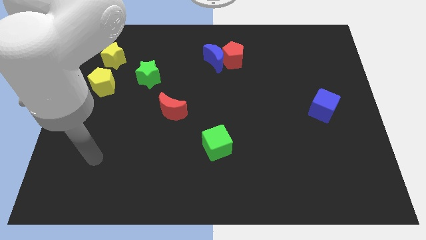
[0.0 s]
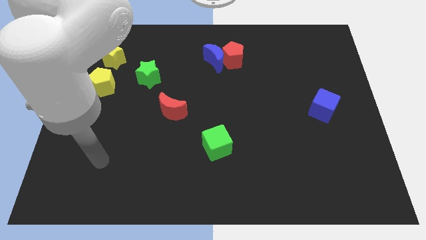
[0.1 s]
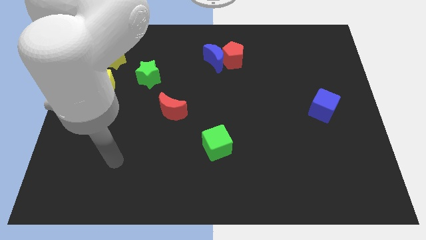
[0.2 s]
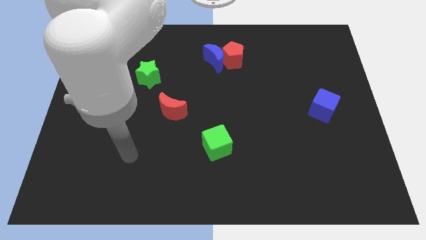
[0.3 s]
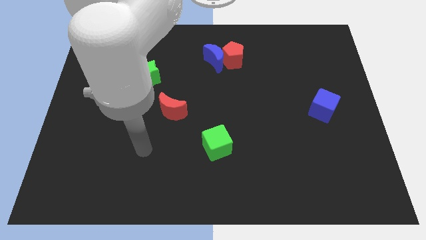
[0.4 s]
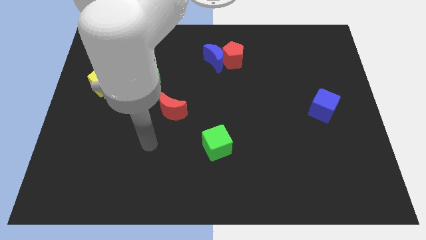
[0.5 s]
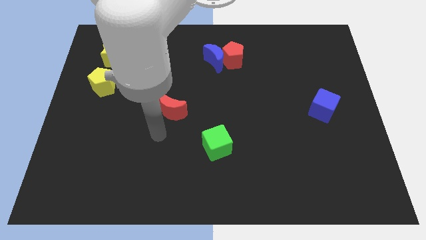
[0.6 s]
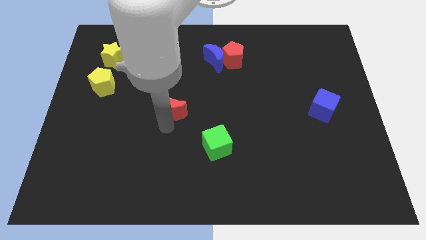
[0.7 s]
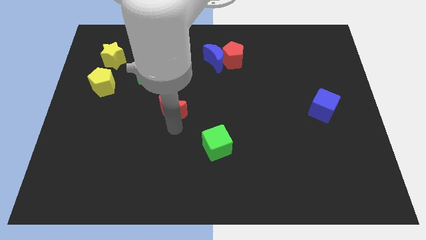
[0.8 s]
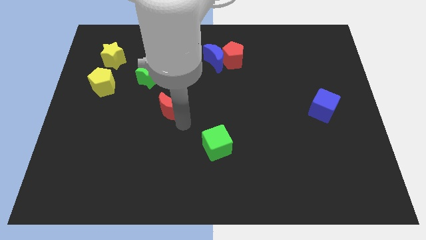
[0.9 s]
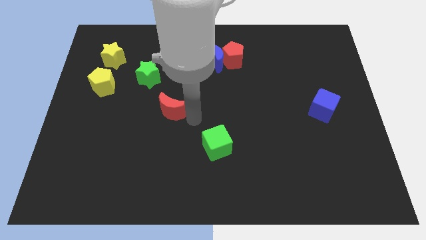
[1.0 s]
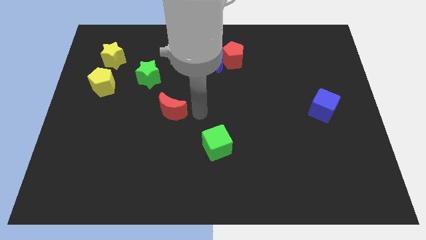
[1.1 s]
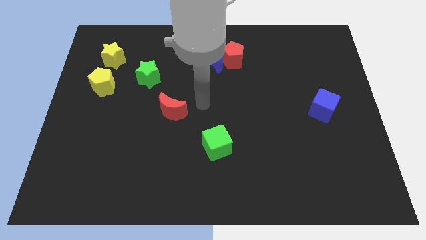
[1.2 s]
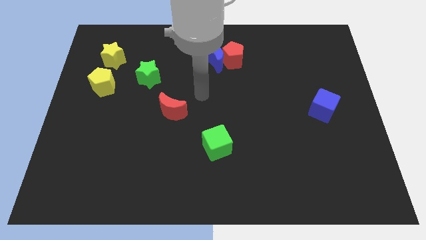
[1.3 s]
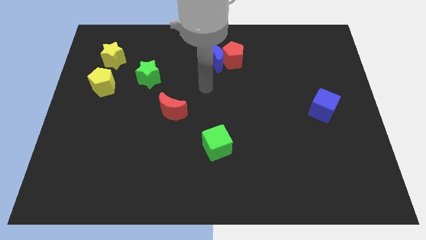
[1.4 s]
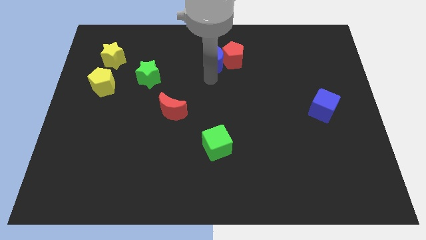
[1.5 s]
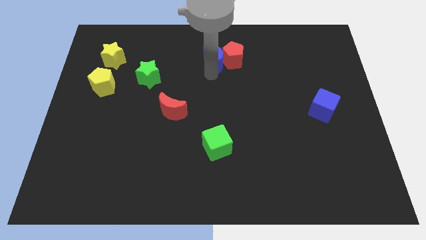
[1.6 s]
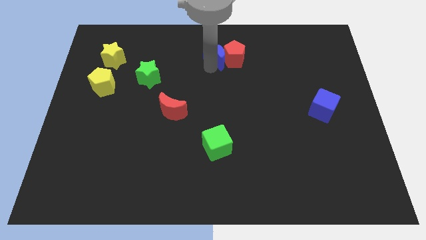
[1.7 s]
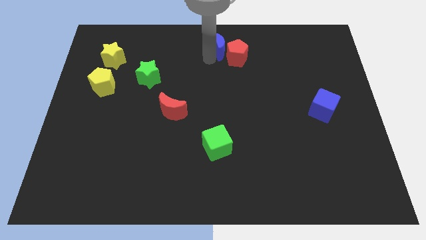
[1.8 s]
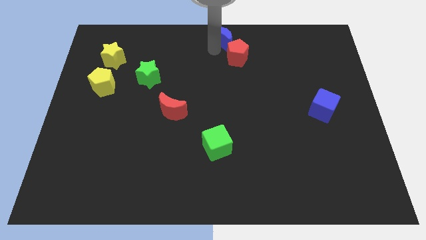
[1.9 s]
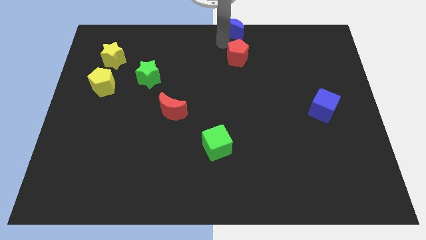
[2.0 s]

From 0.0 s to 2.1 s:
move the red pentagon away from the blue moon

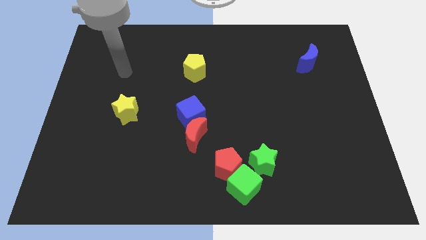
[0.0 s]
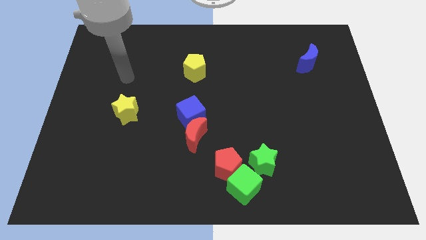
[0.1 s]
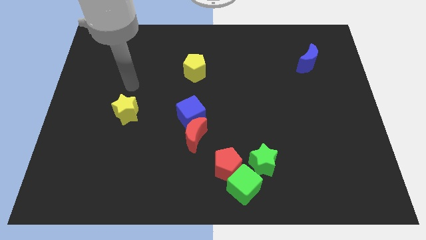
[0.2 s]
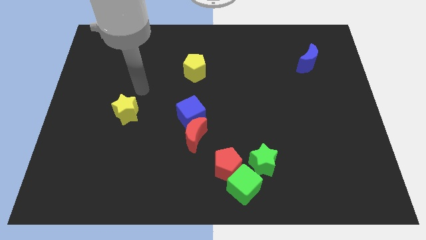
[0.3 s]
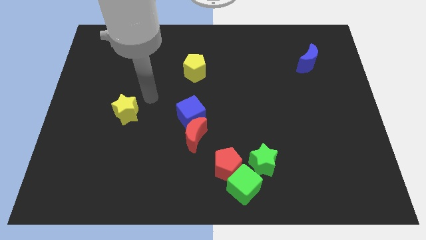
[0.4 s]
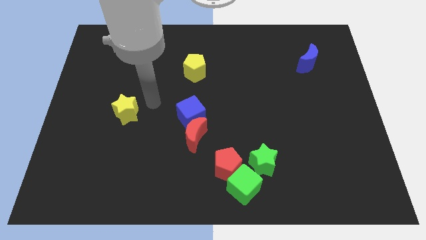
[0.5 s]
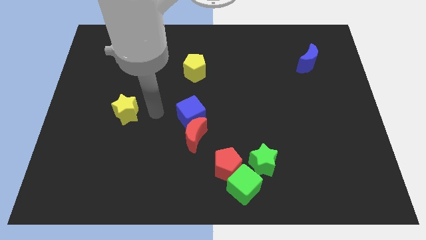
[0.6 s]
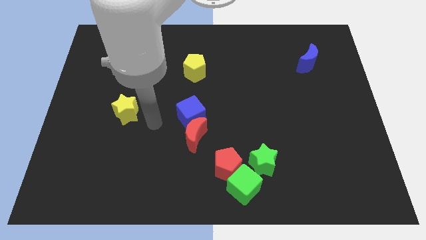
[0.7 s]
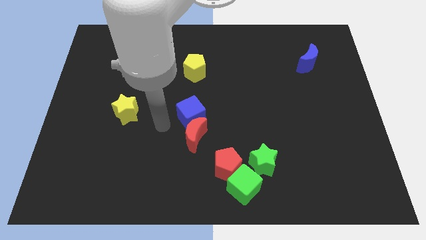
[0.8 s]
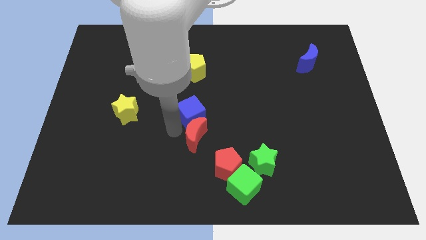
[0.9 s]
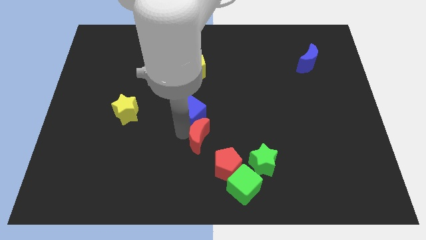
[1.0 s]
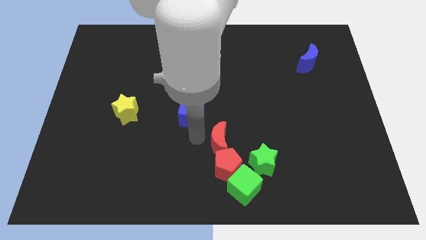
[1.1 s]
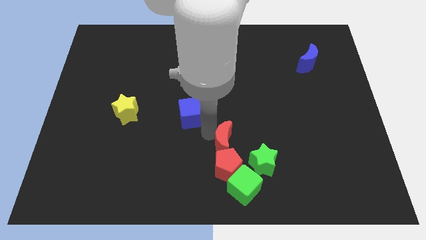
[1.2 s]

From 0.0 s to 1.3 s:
move the blue cube away from the red moon

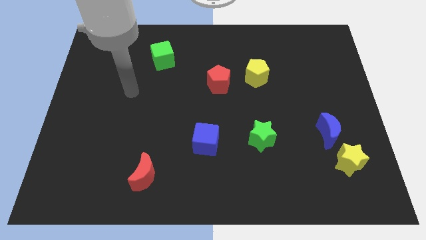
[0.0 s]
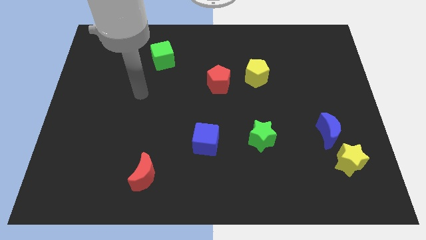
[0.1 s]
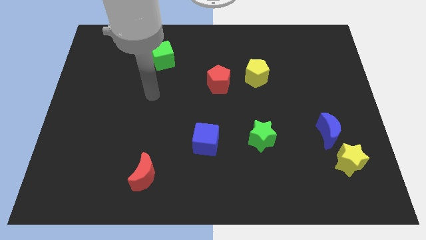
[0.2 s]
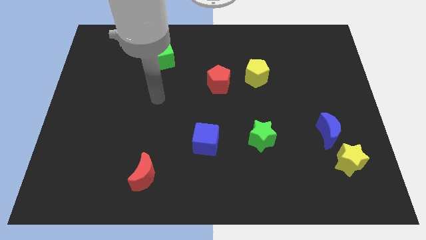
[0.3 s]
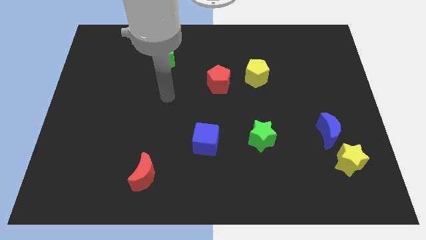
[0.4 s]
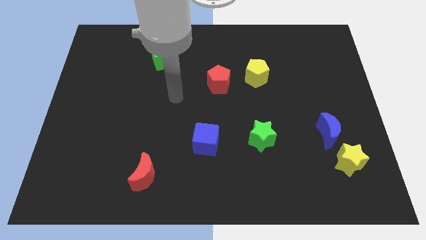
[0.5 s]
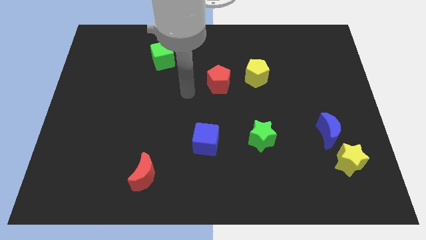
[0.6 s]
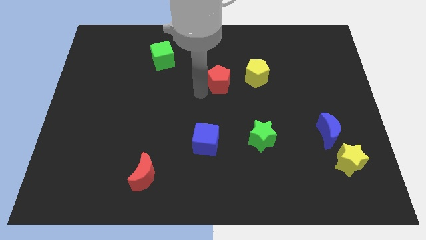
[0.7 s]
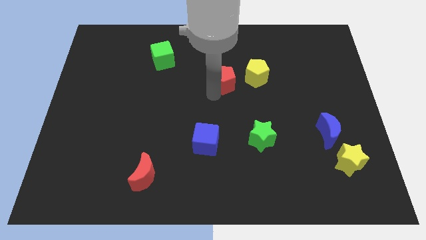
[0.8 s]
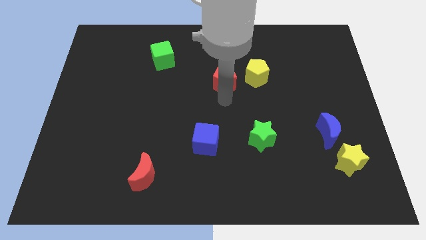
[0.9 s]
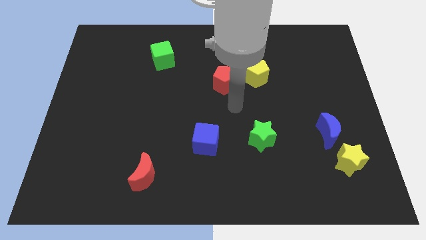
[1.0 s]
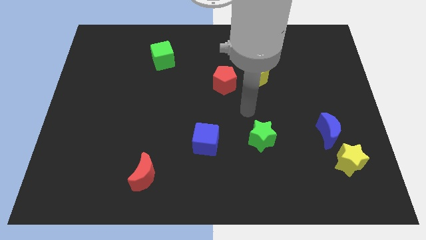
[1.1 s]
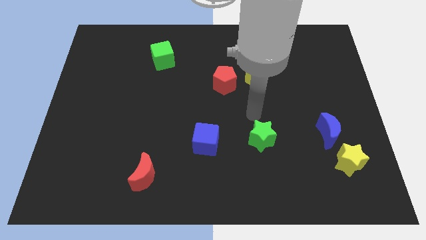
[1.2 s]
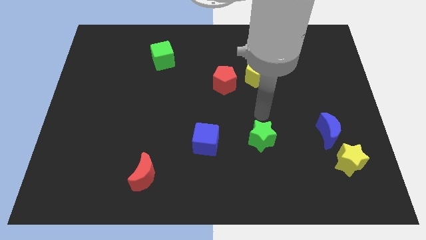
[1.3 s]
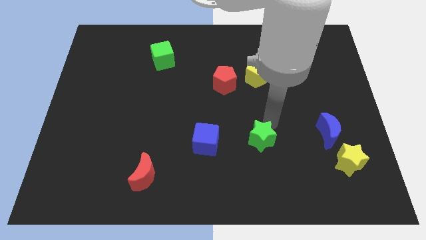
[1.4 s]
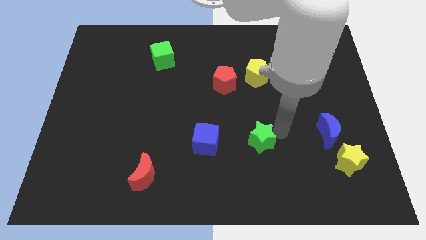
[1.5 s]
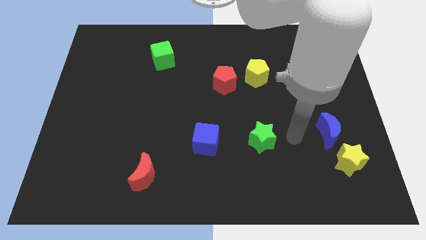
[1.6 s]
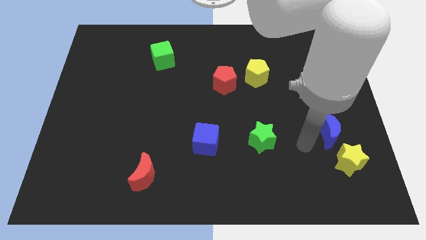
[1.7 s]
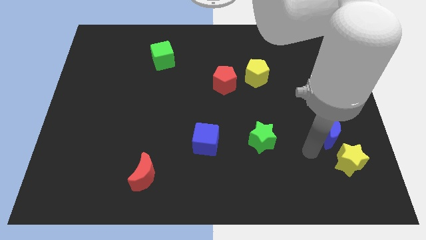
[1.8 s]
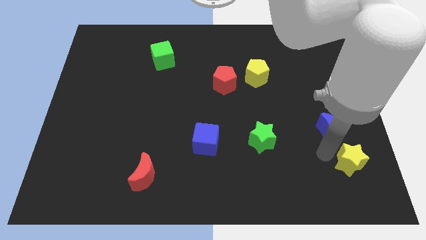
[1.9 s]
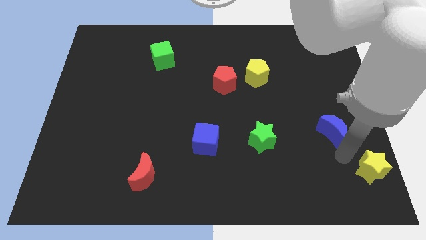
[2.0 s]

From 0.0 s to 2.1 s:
move the blue moon away from the yellow star

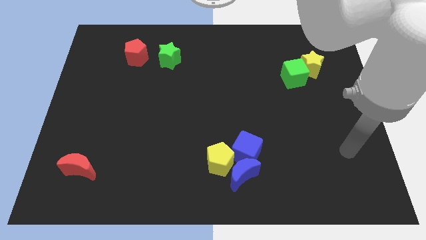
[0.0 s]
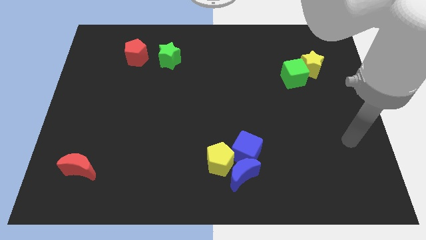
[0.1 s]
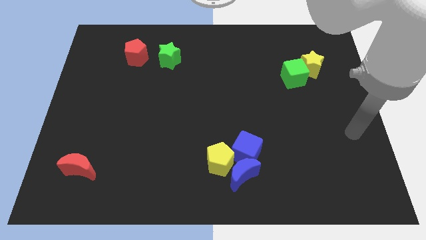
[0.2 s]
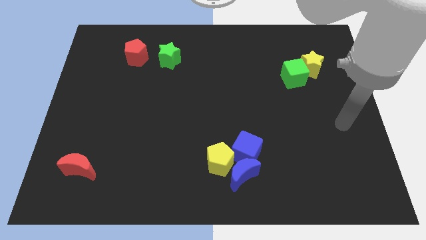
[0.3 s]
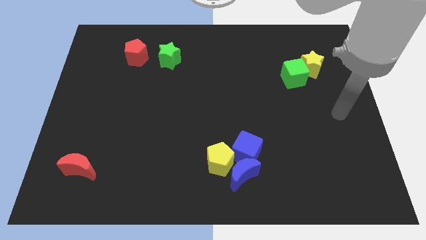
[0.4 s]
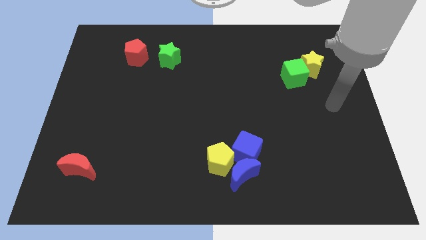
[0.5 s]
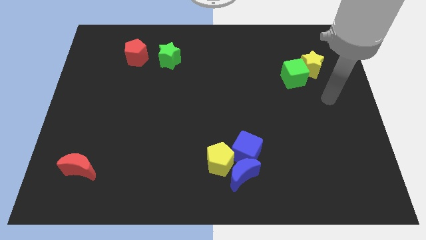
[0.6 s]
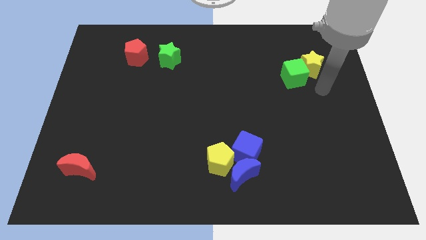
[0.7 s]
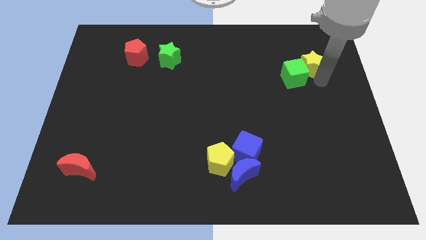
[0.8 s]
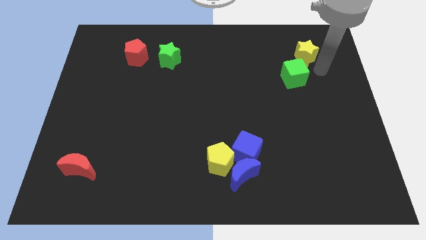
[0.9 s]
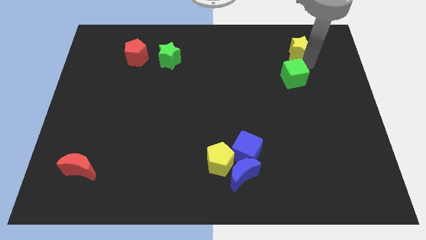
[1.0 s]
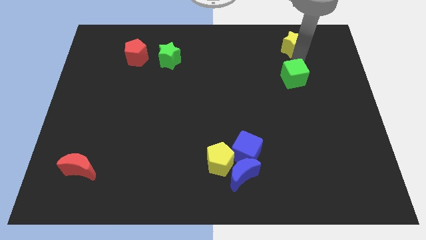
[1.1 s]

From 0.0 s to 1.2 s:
pull the green cube apart from the yellow star

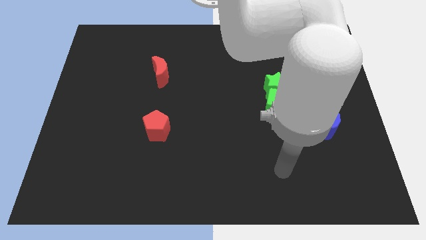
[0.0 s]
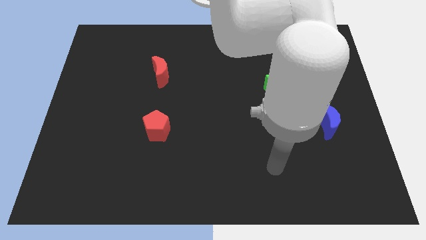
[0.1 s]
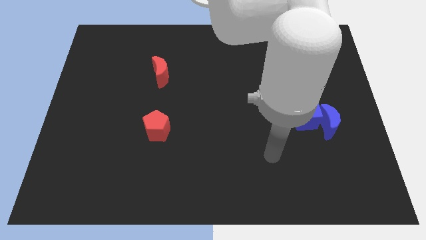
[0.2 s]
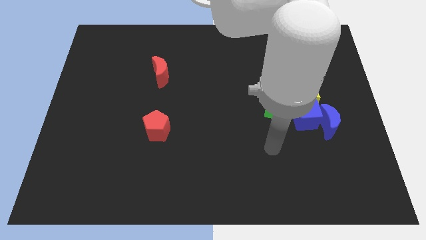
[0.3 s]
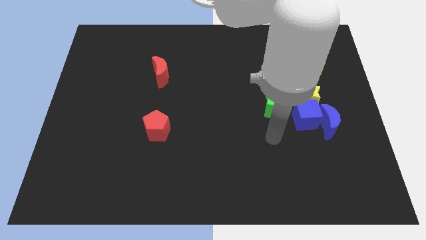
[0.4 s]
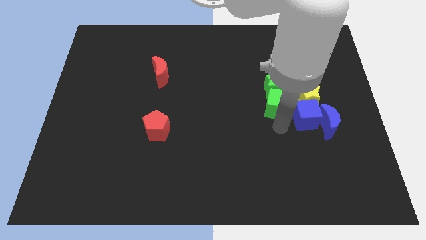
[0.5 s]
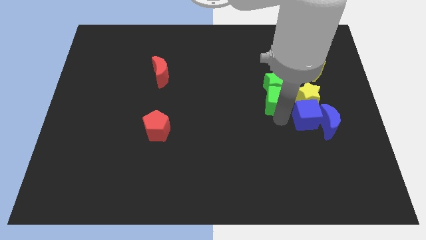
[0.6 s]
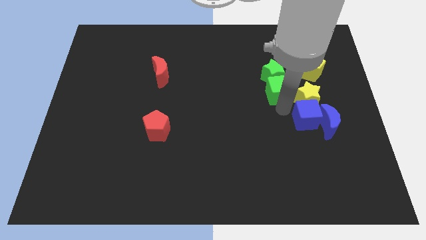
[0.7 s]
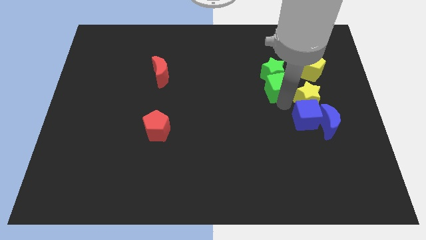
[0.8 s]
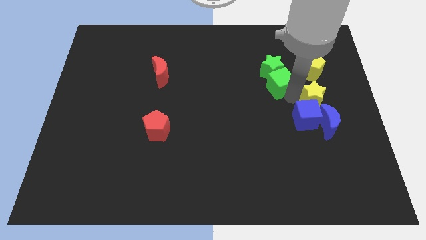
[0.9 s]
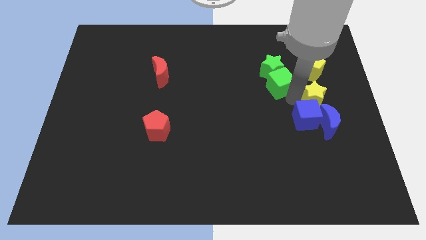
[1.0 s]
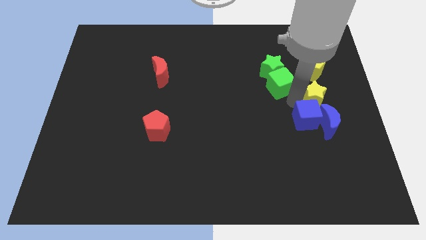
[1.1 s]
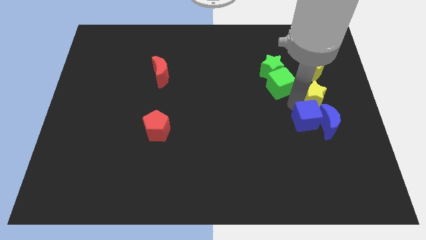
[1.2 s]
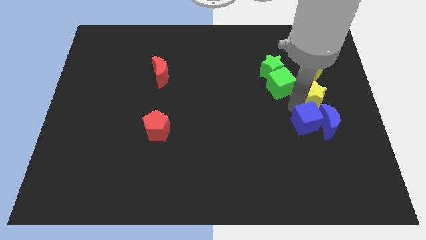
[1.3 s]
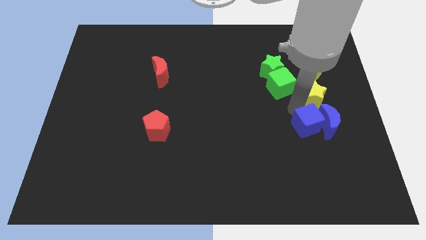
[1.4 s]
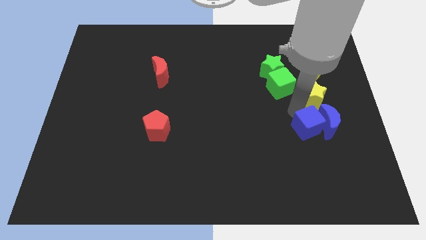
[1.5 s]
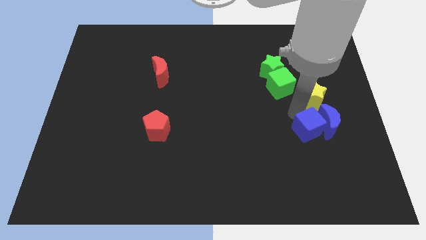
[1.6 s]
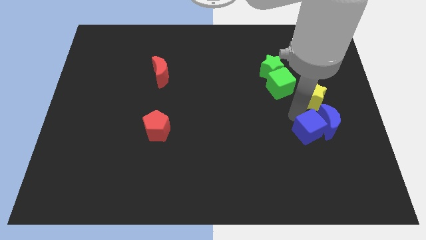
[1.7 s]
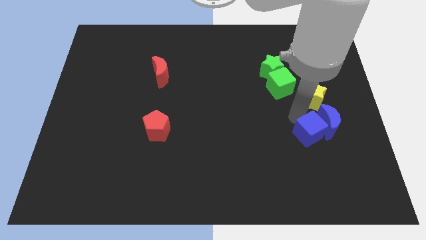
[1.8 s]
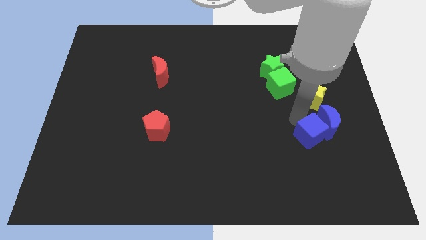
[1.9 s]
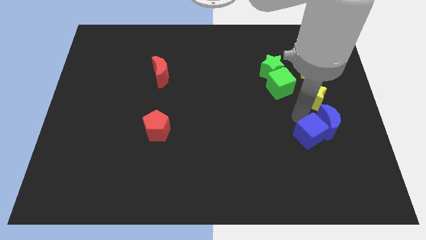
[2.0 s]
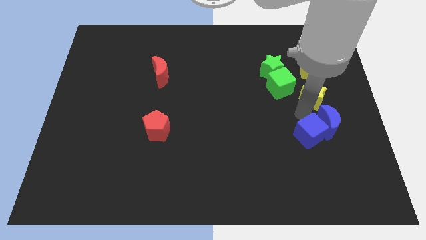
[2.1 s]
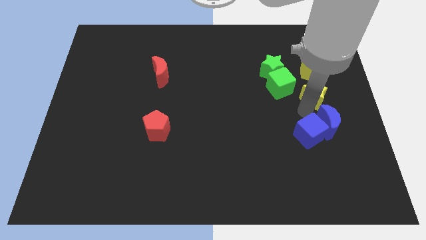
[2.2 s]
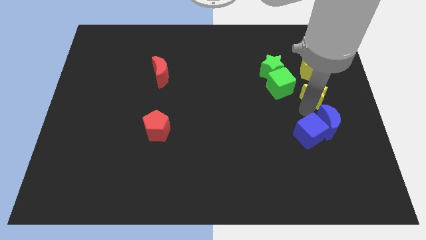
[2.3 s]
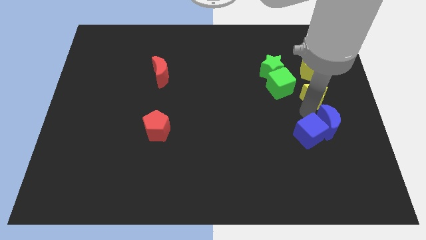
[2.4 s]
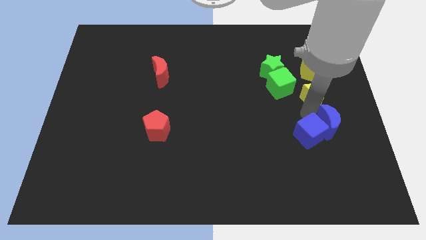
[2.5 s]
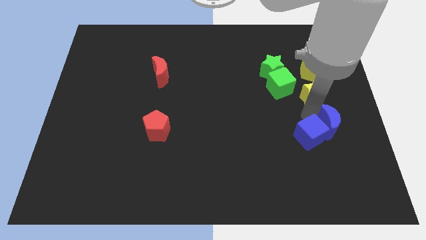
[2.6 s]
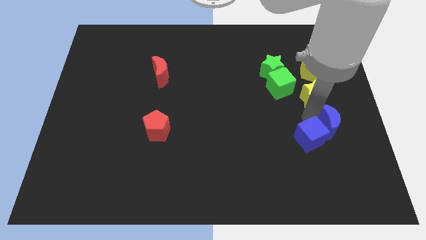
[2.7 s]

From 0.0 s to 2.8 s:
separate the blue cube from the group
